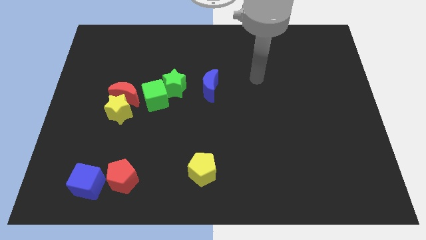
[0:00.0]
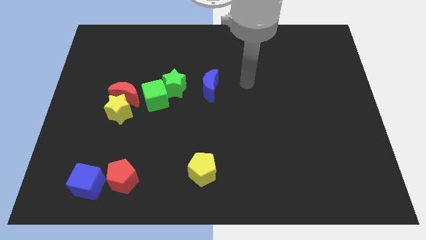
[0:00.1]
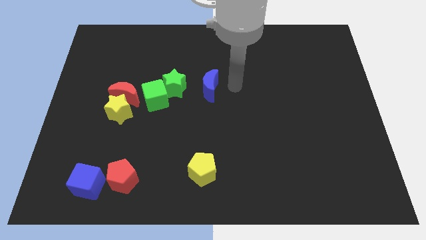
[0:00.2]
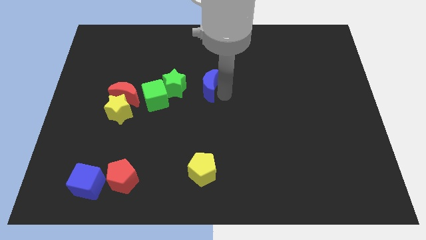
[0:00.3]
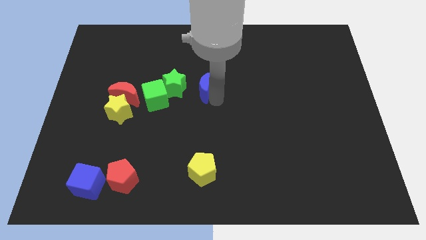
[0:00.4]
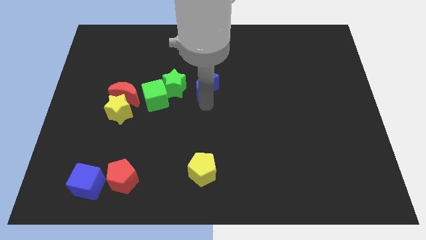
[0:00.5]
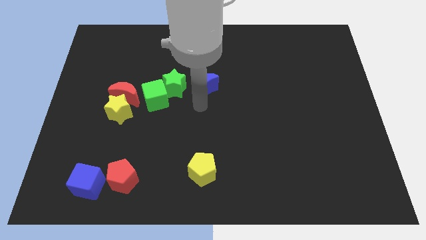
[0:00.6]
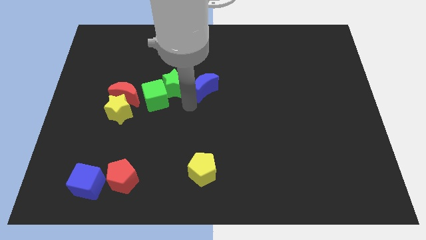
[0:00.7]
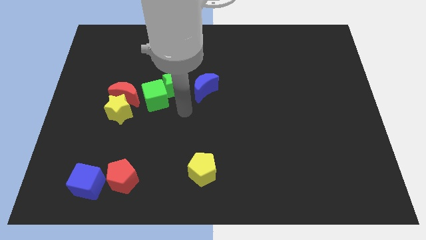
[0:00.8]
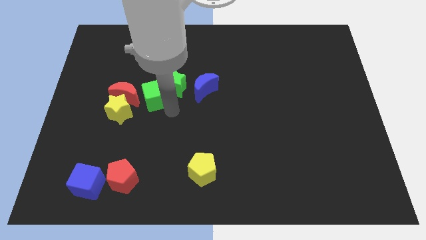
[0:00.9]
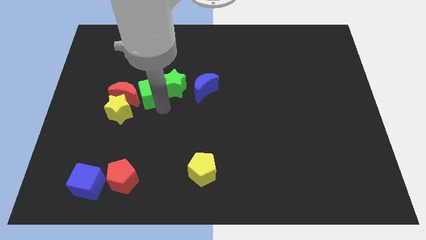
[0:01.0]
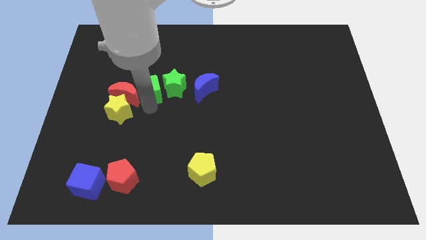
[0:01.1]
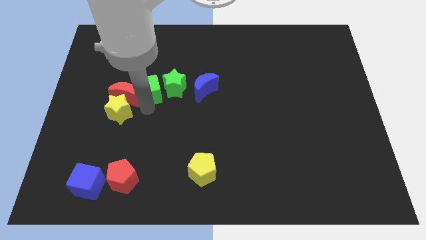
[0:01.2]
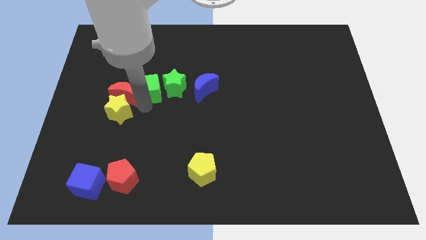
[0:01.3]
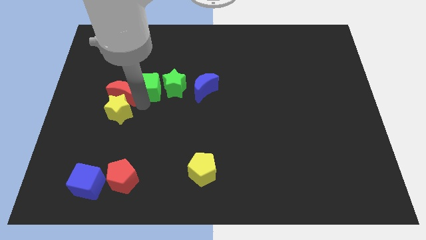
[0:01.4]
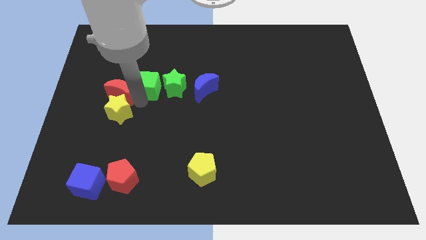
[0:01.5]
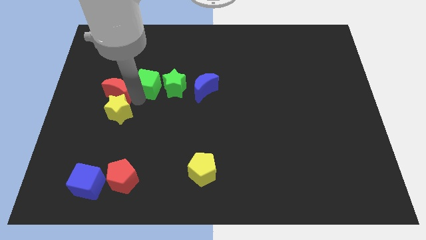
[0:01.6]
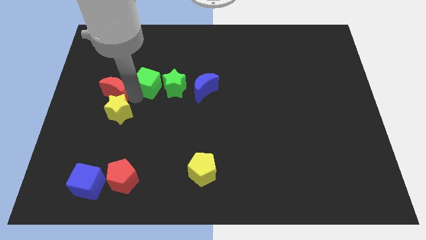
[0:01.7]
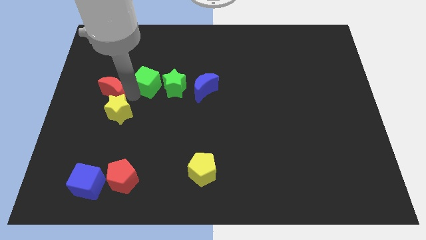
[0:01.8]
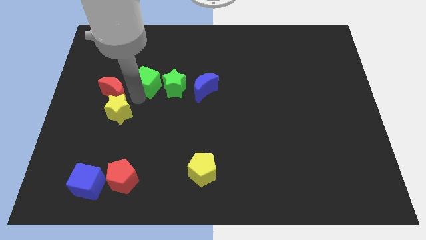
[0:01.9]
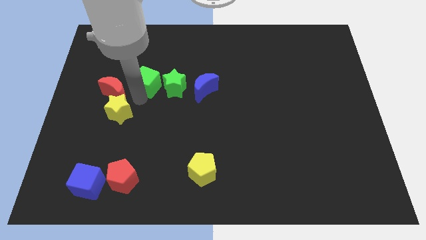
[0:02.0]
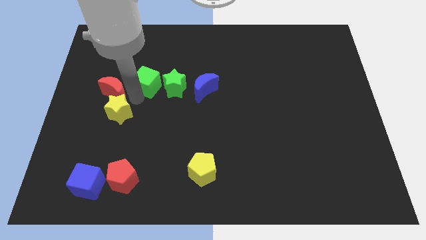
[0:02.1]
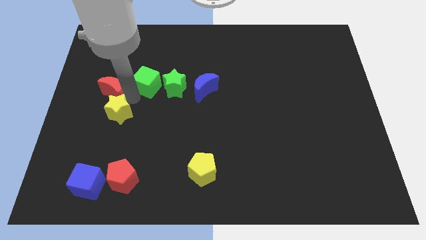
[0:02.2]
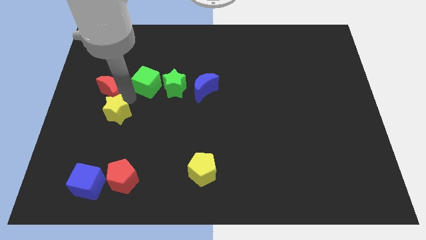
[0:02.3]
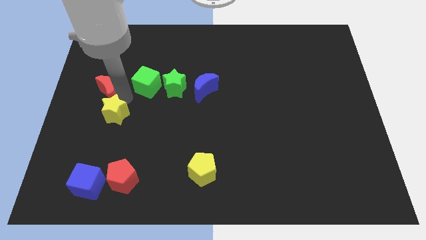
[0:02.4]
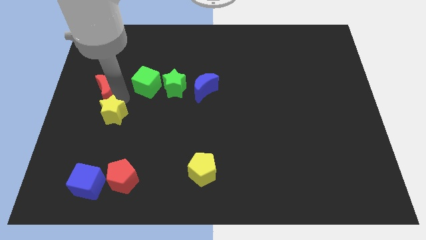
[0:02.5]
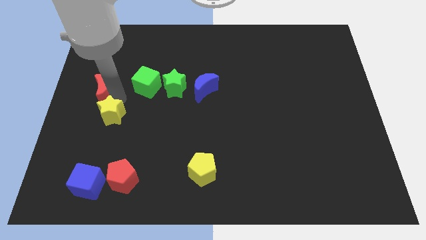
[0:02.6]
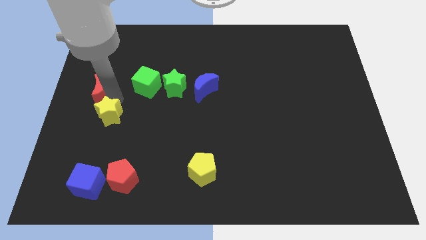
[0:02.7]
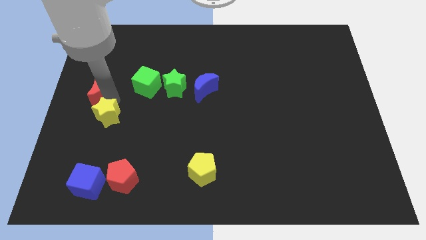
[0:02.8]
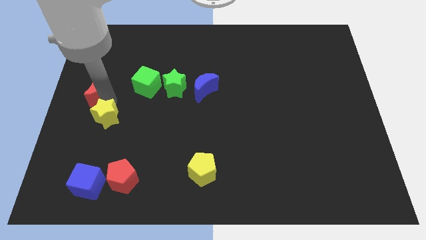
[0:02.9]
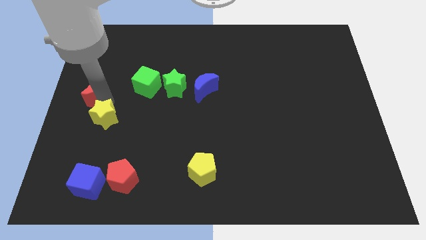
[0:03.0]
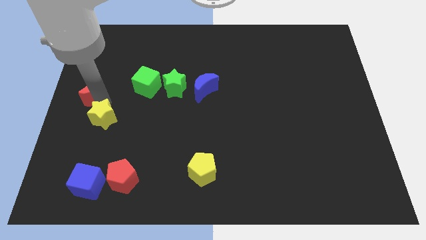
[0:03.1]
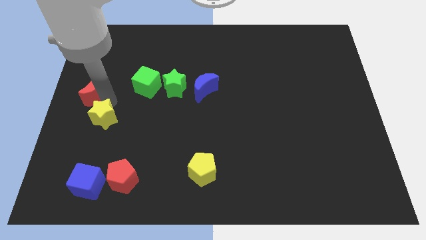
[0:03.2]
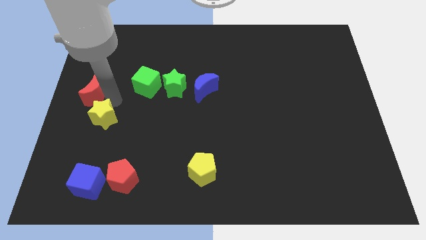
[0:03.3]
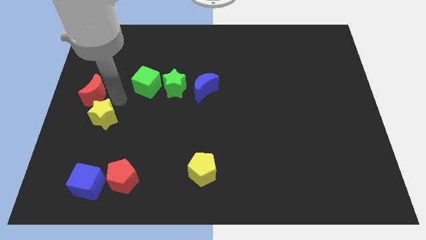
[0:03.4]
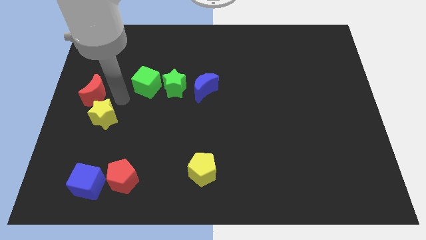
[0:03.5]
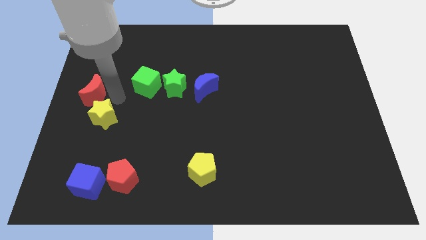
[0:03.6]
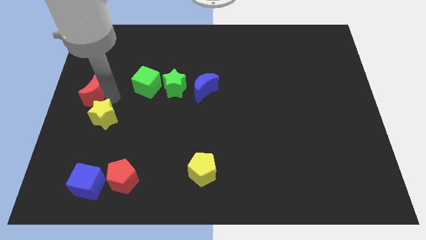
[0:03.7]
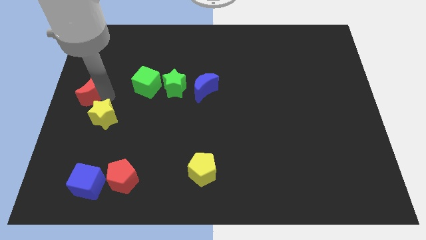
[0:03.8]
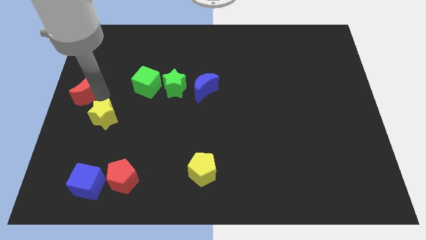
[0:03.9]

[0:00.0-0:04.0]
move the red moon away from the yellow star and green cube

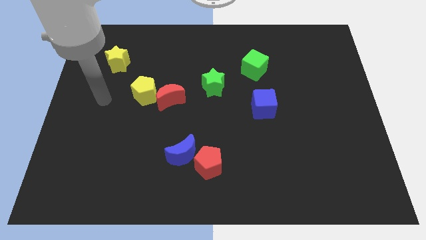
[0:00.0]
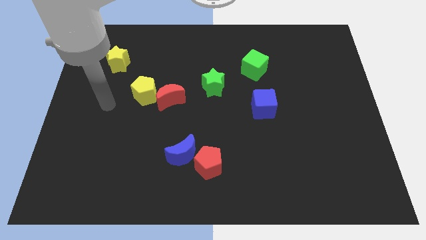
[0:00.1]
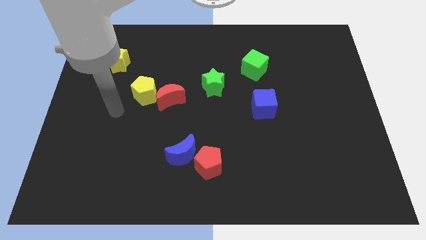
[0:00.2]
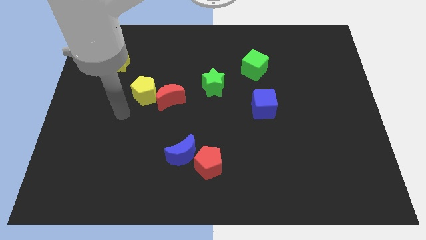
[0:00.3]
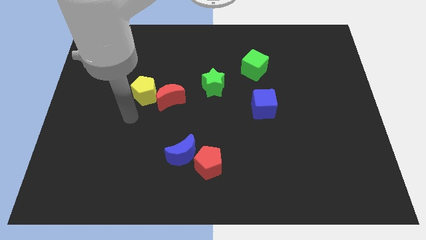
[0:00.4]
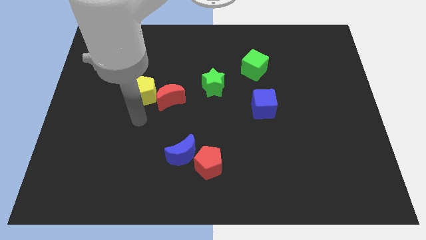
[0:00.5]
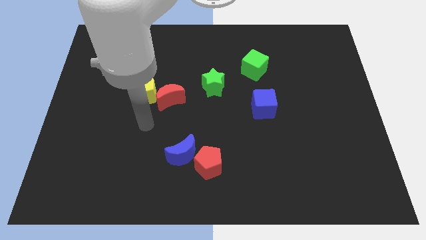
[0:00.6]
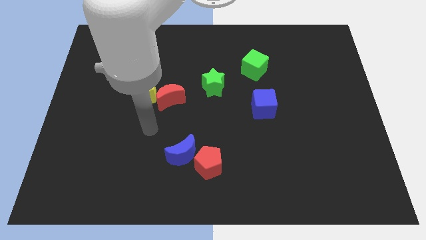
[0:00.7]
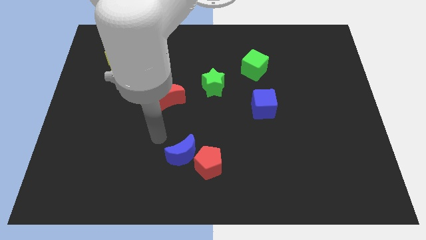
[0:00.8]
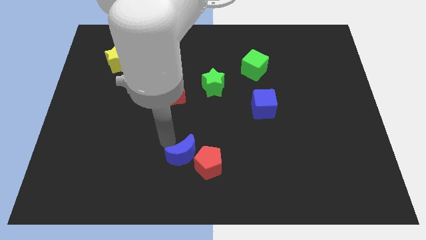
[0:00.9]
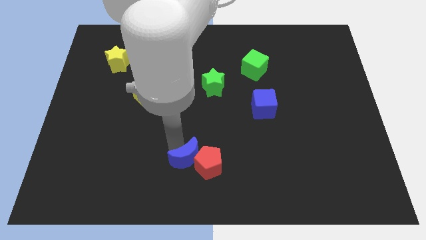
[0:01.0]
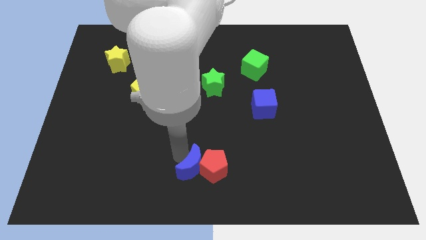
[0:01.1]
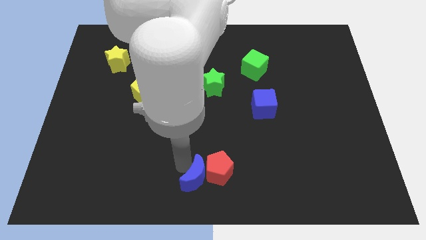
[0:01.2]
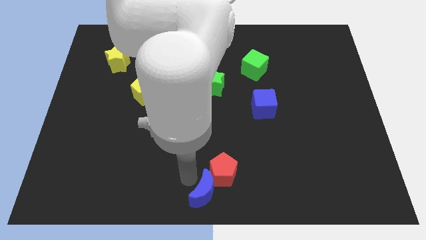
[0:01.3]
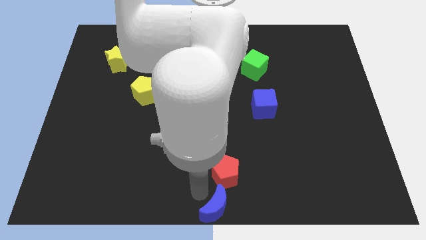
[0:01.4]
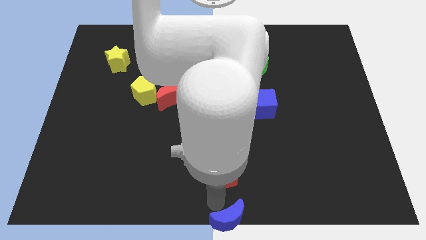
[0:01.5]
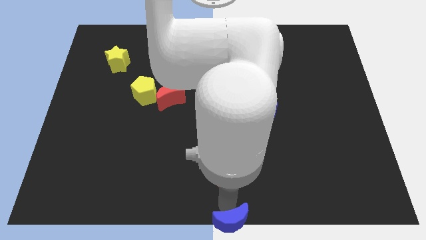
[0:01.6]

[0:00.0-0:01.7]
separate the red pentagon from the blue moon

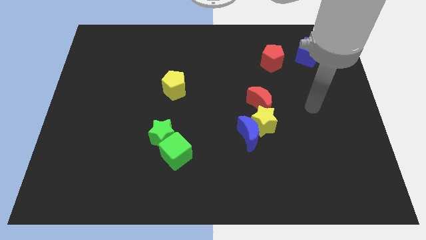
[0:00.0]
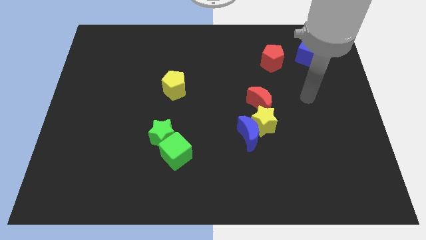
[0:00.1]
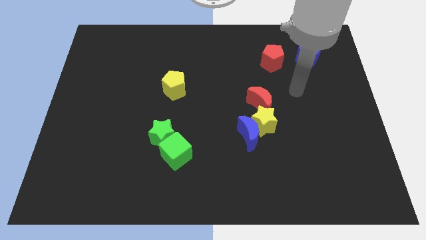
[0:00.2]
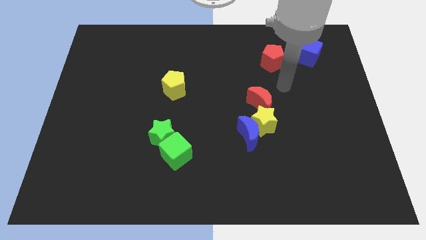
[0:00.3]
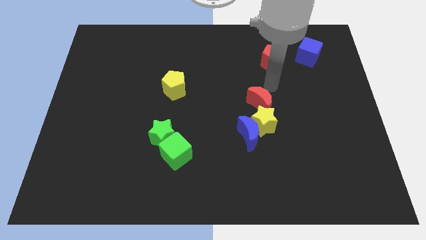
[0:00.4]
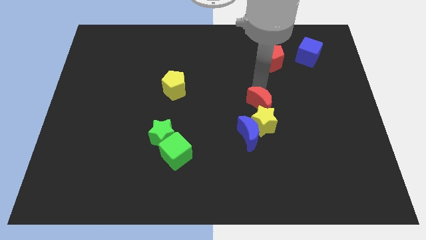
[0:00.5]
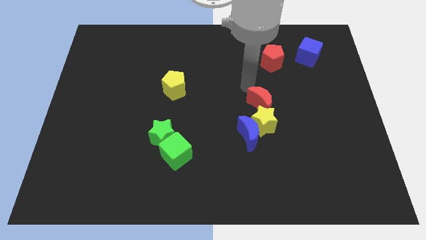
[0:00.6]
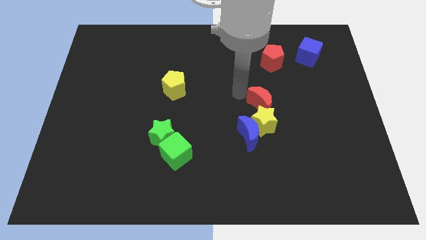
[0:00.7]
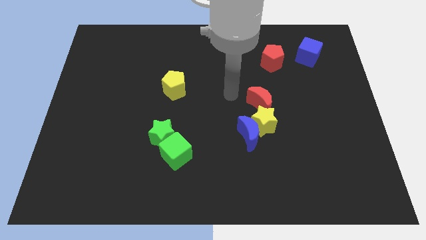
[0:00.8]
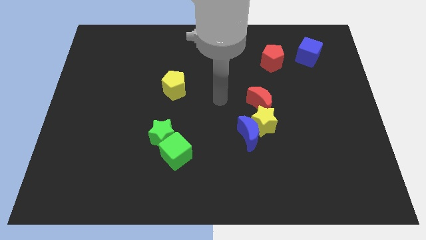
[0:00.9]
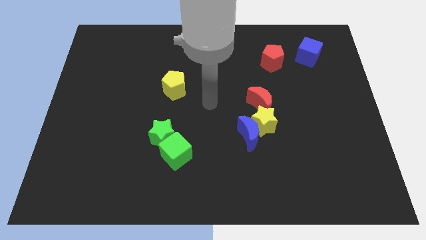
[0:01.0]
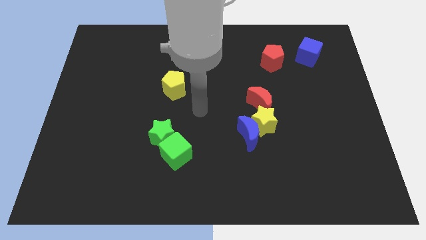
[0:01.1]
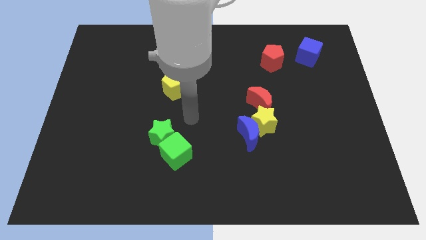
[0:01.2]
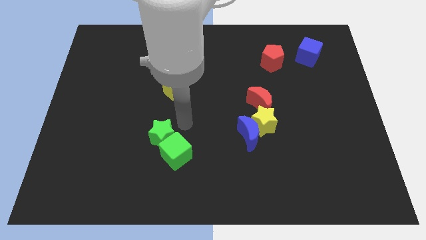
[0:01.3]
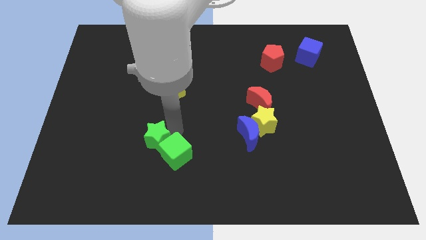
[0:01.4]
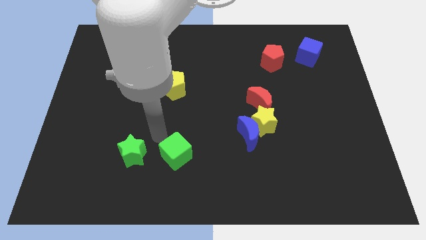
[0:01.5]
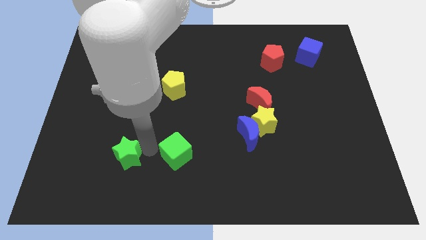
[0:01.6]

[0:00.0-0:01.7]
move the green cube away from the green star

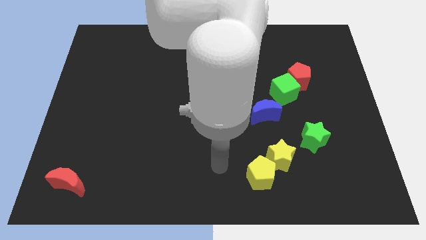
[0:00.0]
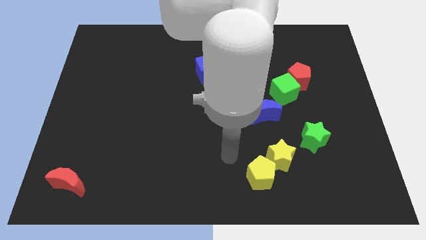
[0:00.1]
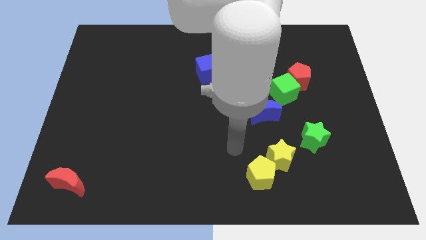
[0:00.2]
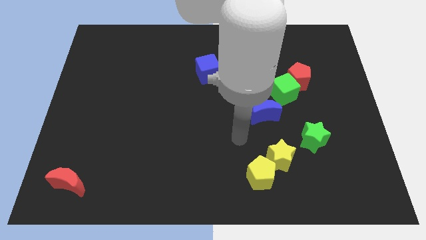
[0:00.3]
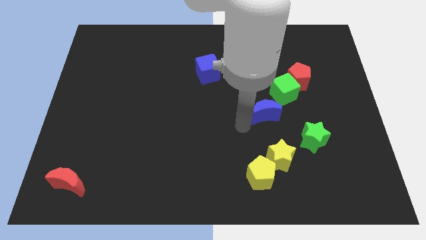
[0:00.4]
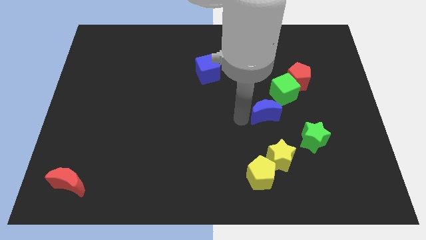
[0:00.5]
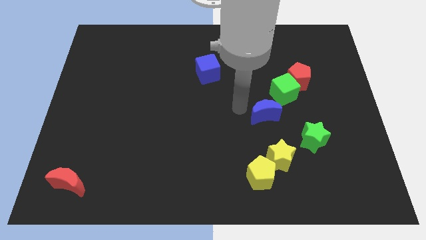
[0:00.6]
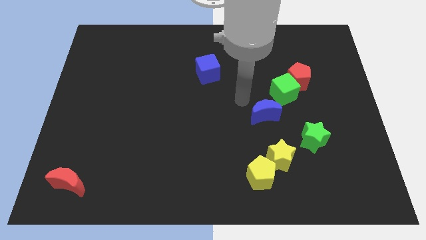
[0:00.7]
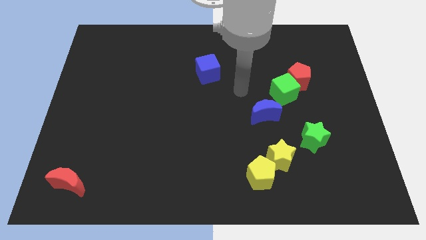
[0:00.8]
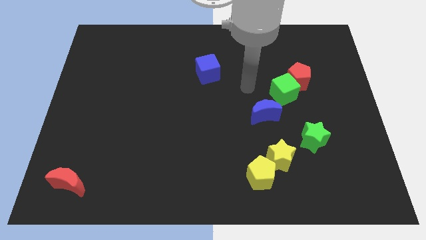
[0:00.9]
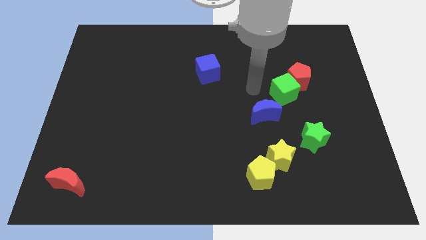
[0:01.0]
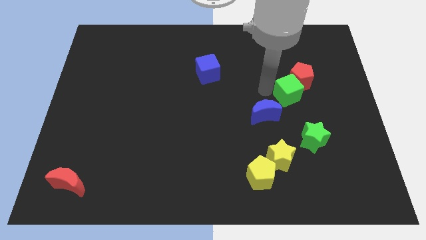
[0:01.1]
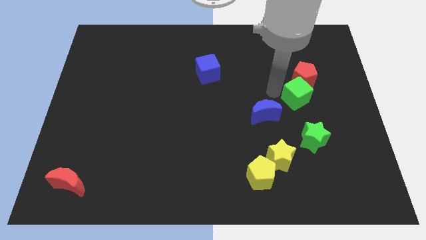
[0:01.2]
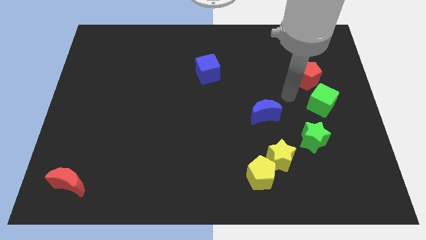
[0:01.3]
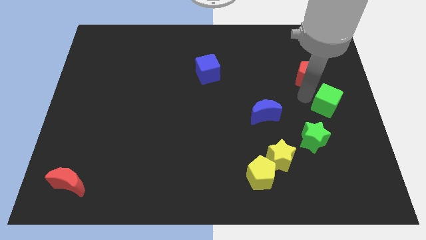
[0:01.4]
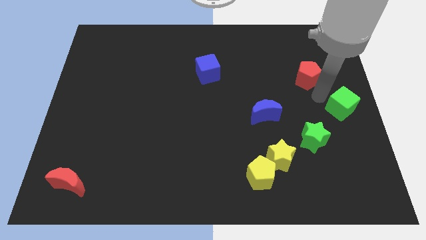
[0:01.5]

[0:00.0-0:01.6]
pull the red pentagon apart from the green cube

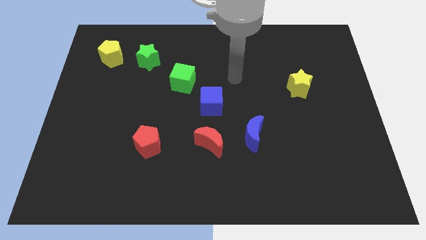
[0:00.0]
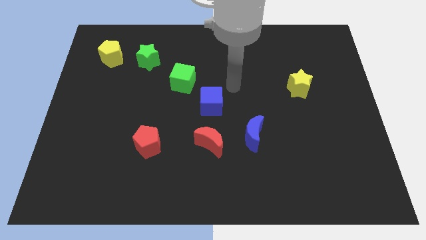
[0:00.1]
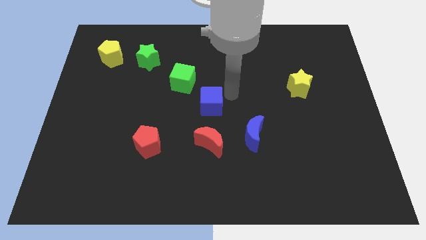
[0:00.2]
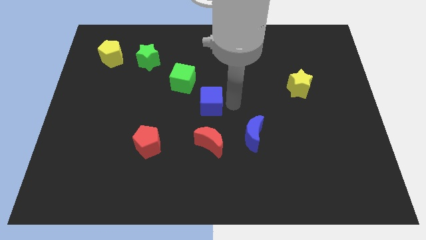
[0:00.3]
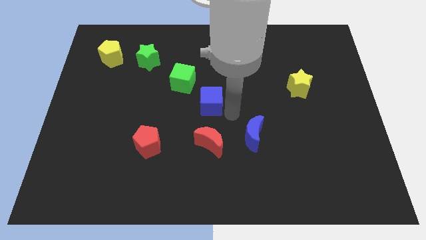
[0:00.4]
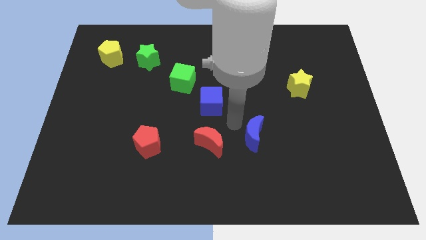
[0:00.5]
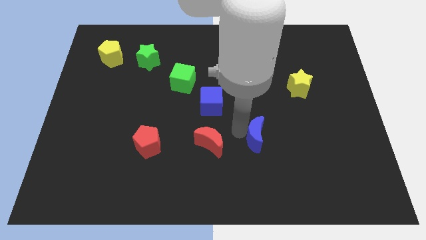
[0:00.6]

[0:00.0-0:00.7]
separate the red moon from the blue moon
